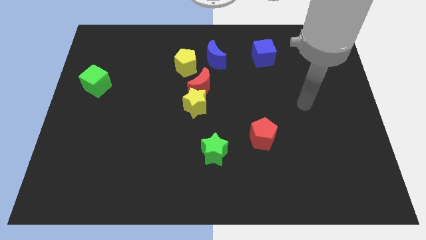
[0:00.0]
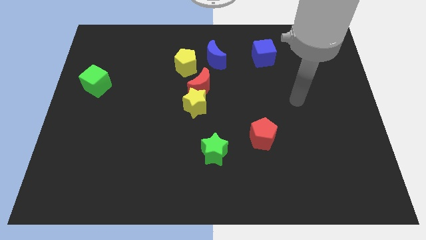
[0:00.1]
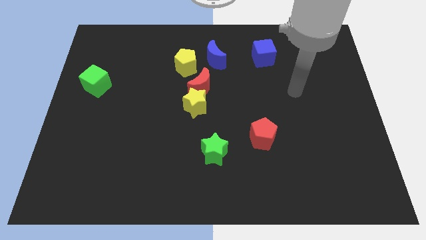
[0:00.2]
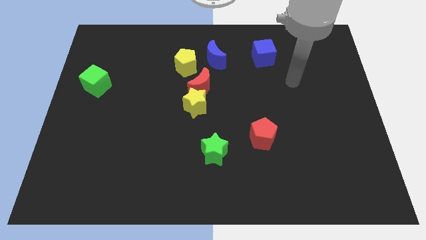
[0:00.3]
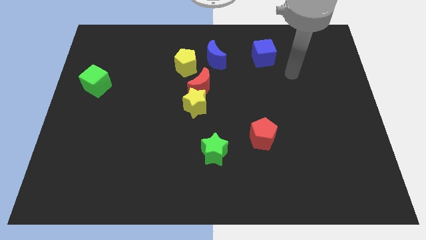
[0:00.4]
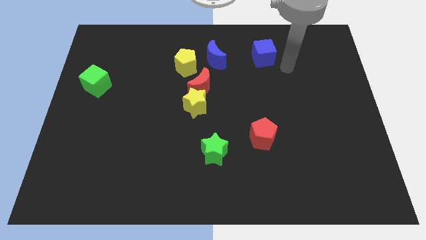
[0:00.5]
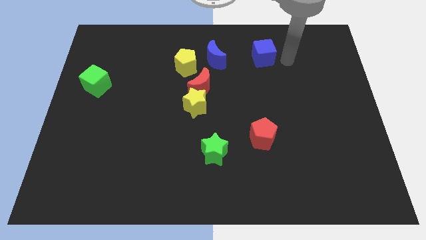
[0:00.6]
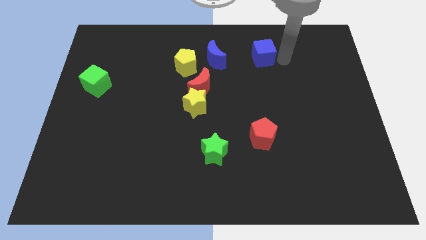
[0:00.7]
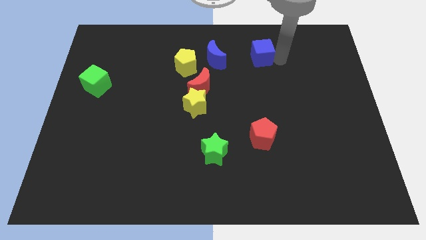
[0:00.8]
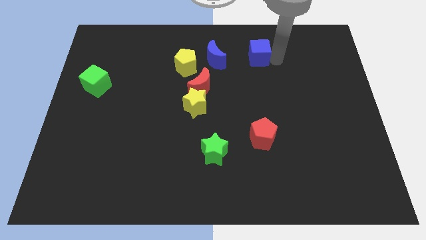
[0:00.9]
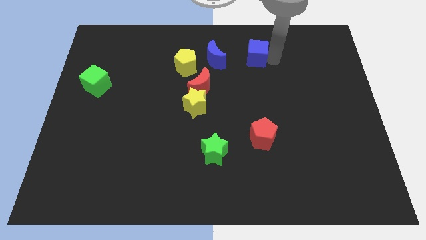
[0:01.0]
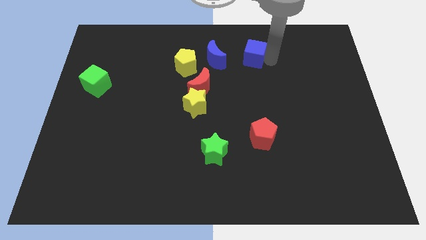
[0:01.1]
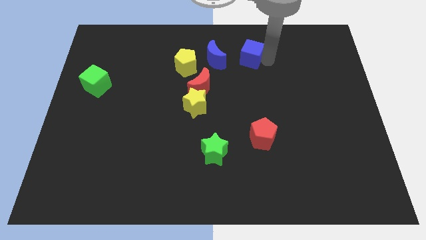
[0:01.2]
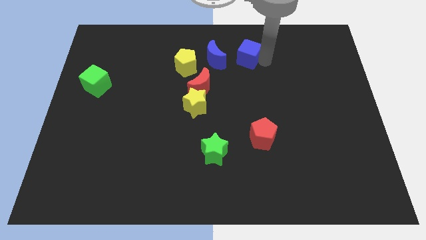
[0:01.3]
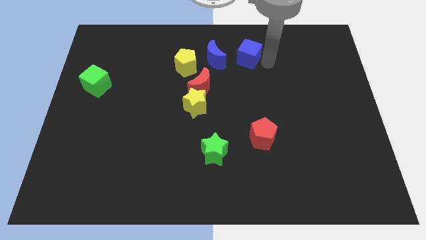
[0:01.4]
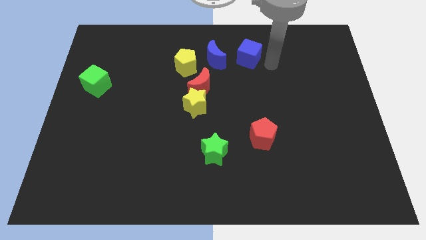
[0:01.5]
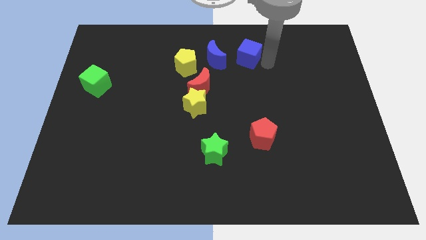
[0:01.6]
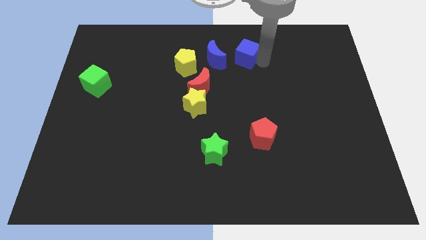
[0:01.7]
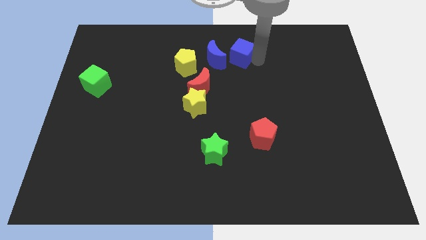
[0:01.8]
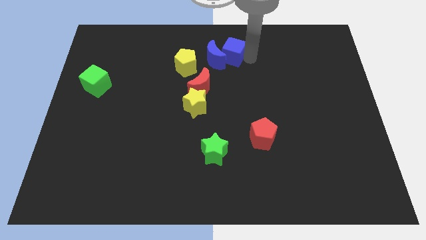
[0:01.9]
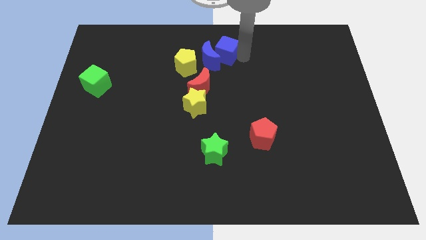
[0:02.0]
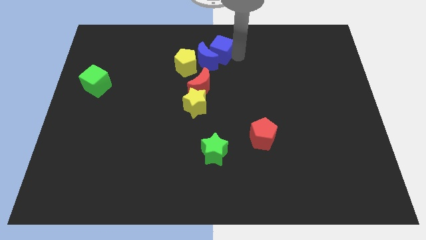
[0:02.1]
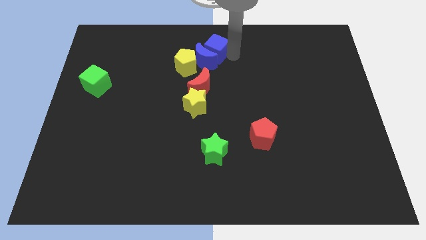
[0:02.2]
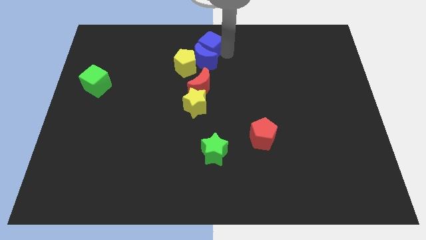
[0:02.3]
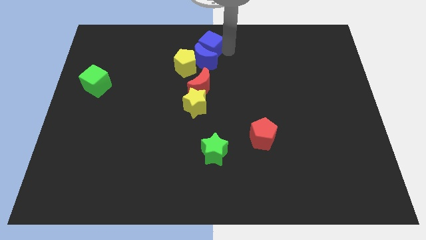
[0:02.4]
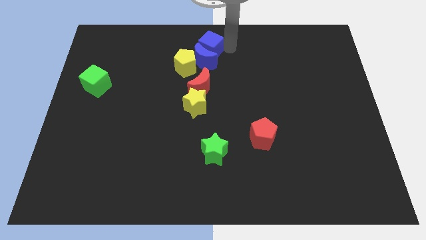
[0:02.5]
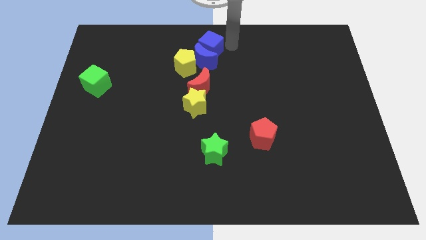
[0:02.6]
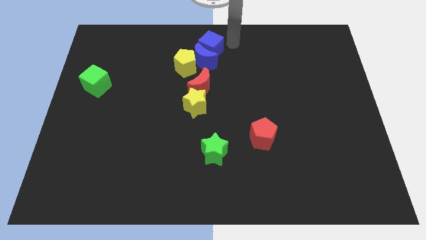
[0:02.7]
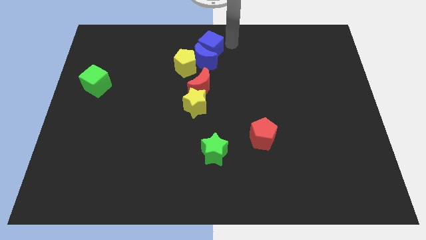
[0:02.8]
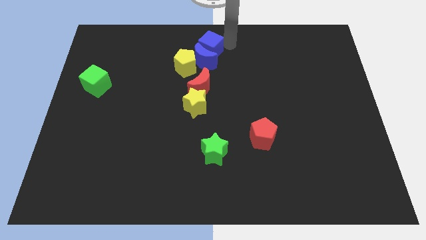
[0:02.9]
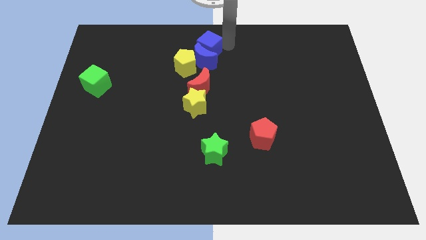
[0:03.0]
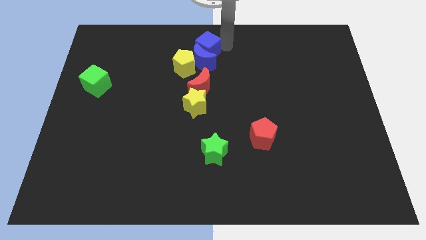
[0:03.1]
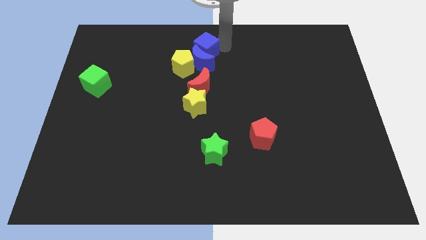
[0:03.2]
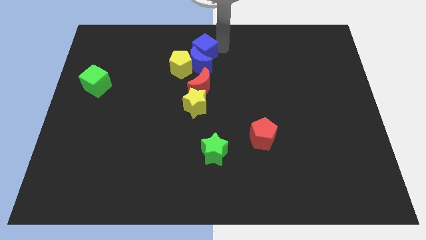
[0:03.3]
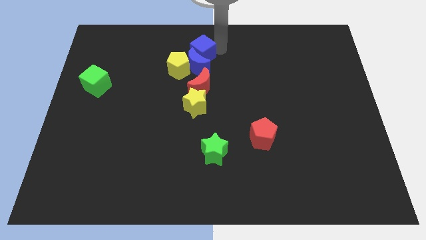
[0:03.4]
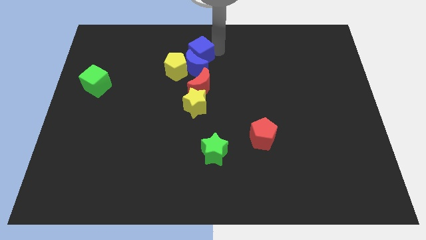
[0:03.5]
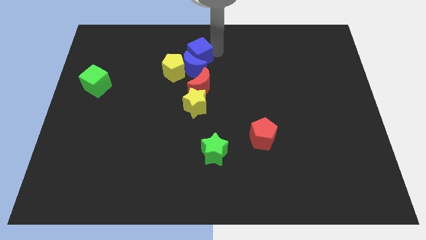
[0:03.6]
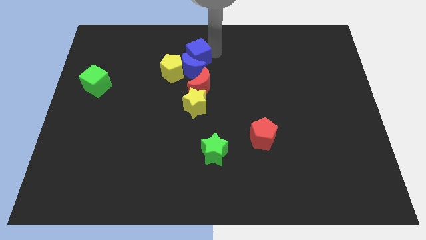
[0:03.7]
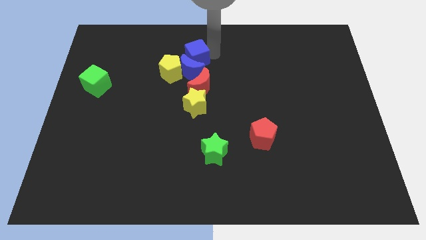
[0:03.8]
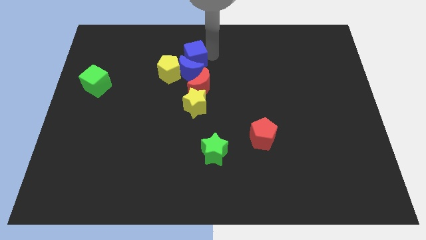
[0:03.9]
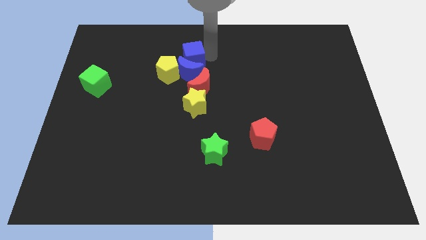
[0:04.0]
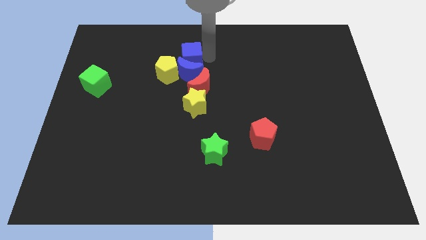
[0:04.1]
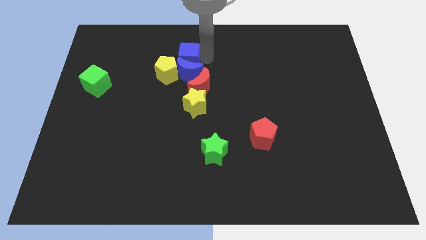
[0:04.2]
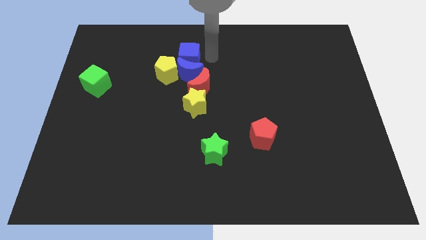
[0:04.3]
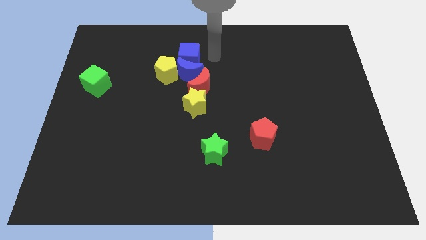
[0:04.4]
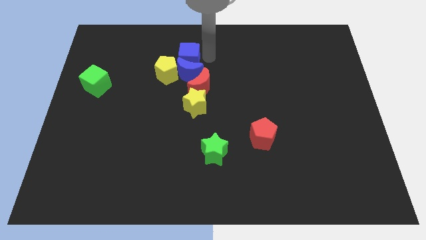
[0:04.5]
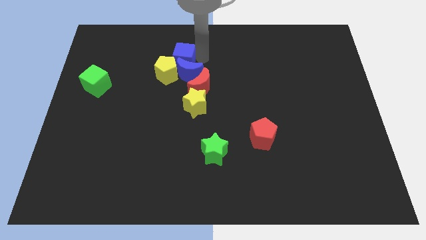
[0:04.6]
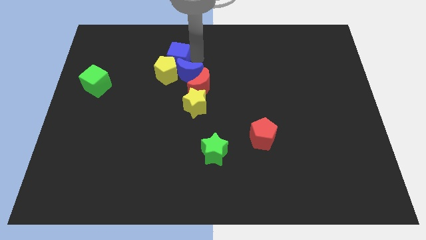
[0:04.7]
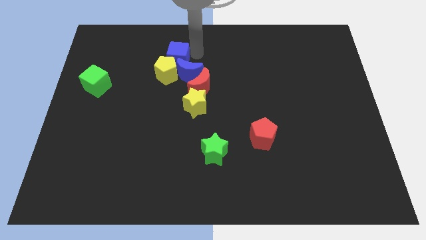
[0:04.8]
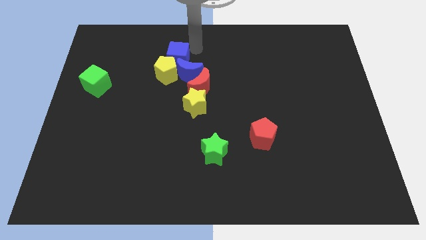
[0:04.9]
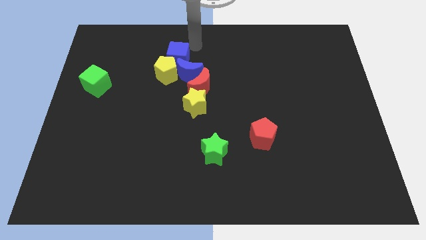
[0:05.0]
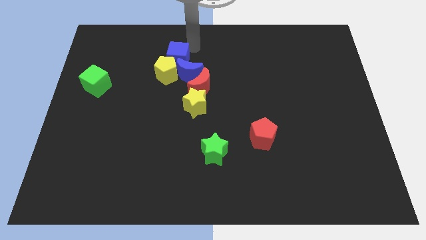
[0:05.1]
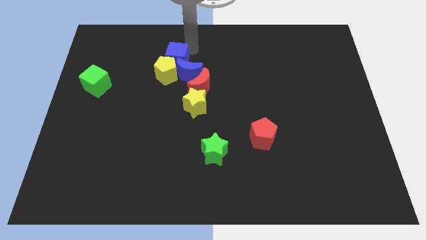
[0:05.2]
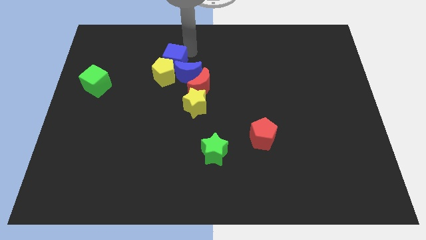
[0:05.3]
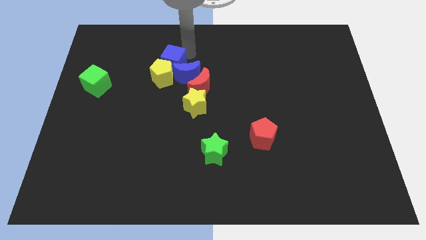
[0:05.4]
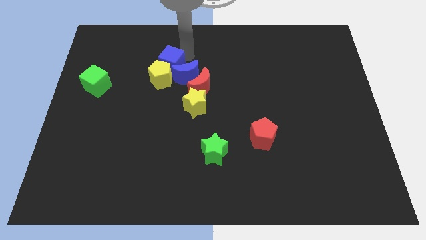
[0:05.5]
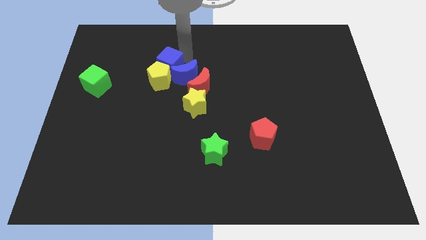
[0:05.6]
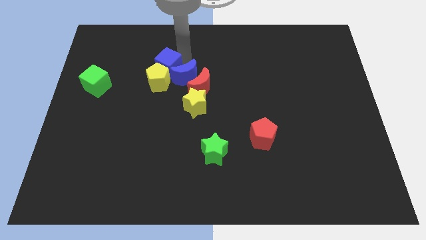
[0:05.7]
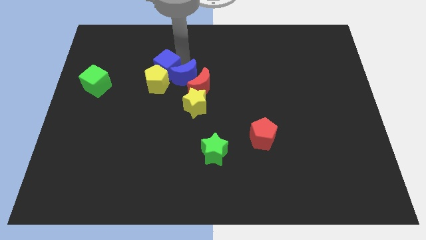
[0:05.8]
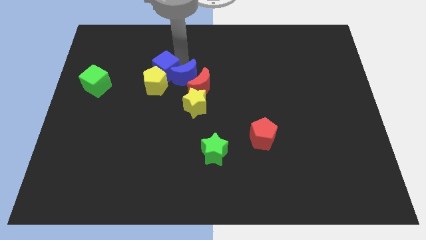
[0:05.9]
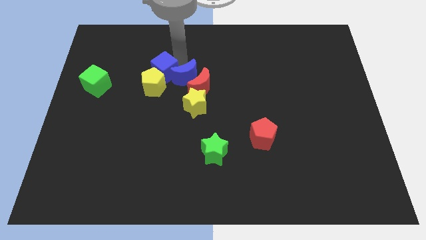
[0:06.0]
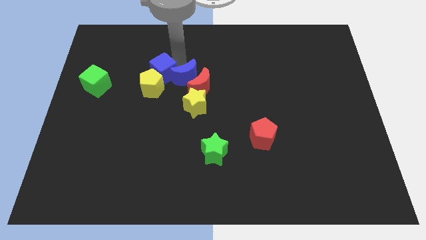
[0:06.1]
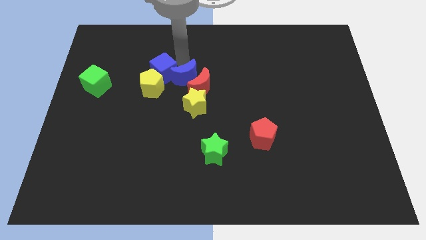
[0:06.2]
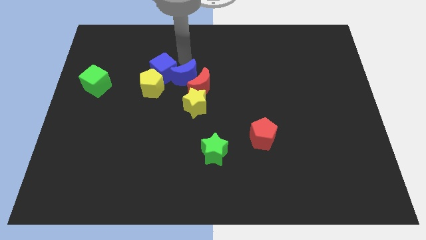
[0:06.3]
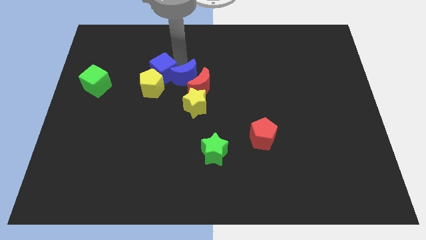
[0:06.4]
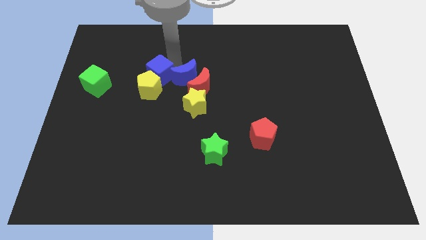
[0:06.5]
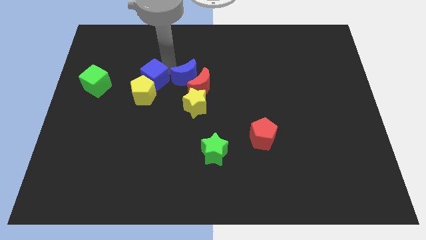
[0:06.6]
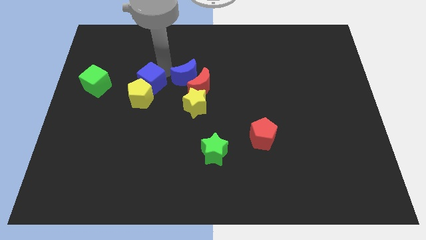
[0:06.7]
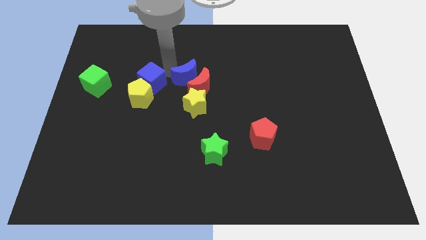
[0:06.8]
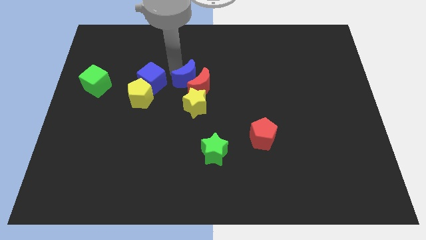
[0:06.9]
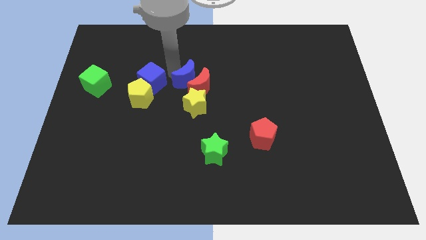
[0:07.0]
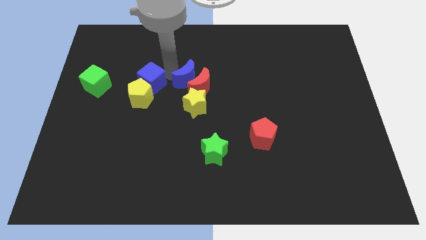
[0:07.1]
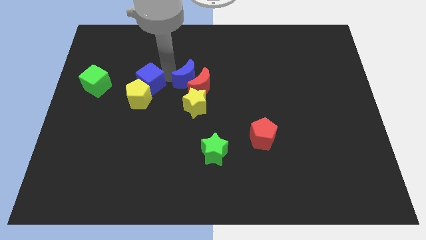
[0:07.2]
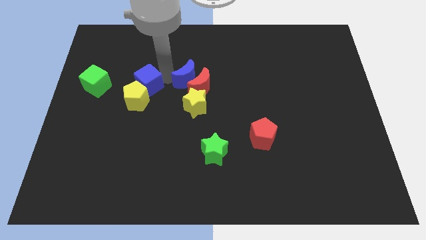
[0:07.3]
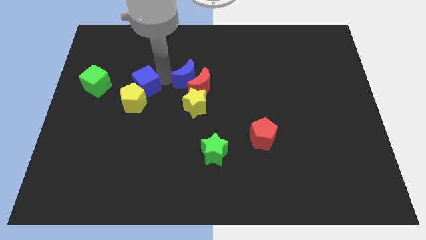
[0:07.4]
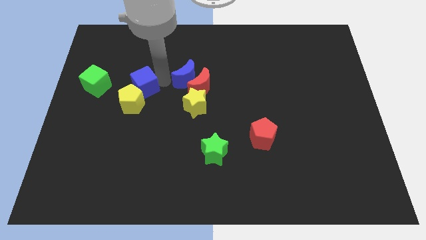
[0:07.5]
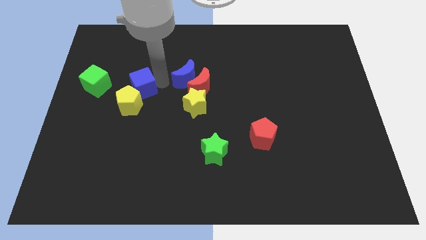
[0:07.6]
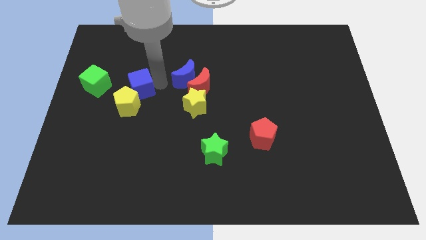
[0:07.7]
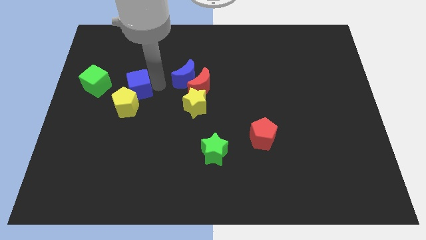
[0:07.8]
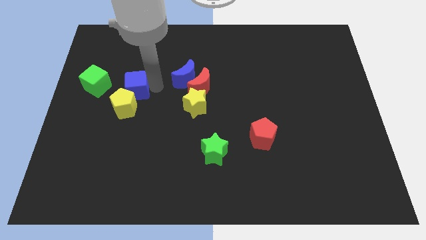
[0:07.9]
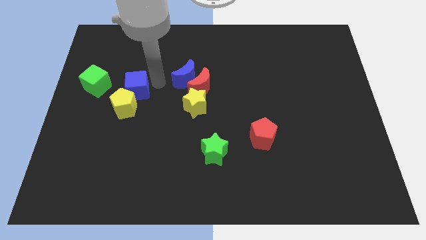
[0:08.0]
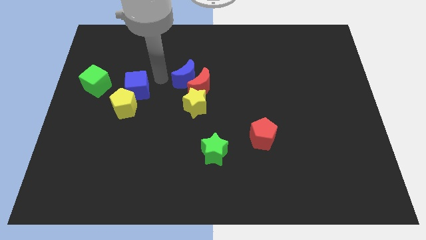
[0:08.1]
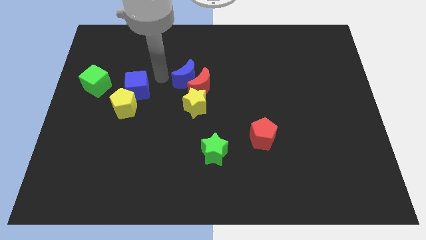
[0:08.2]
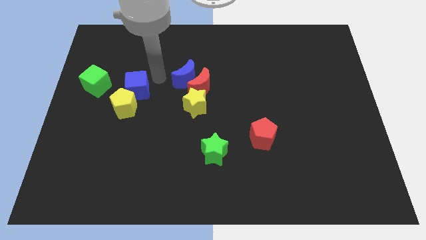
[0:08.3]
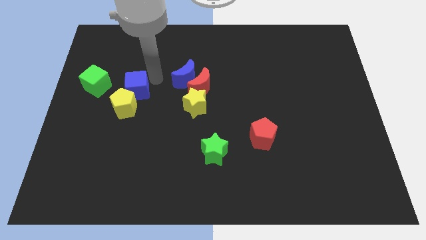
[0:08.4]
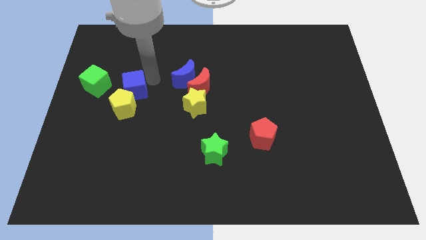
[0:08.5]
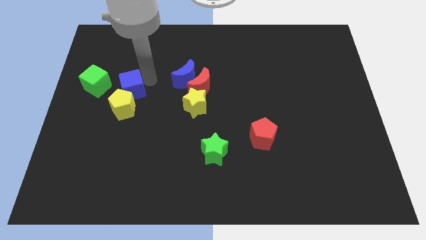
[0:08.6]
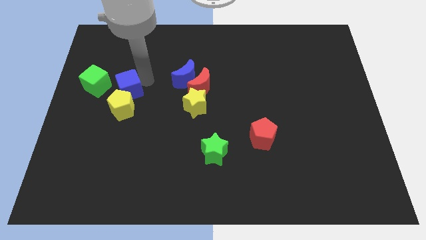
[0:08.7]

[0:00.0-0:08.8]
put the blue cube to the bottom right of the green cube
